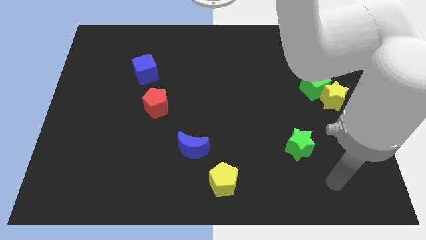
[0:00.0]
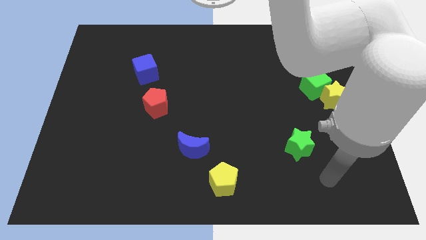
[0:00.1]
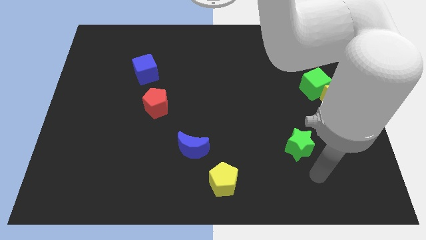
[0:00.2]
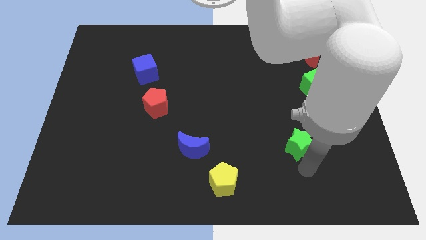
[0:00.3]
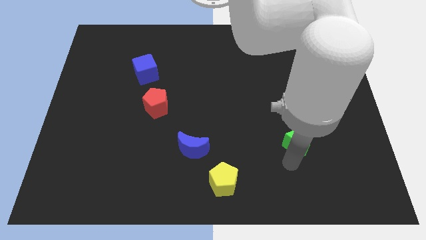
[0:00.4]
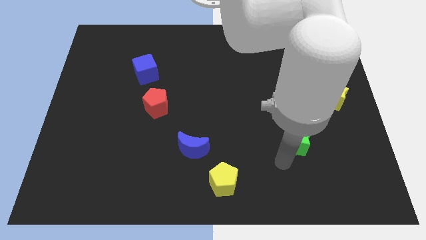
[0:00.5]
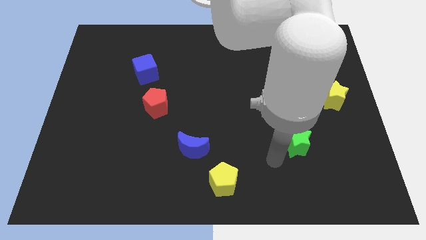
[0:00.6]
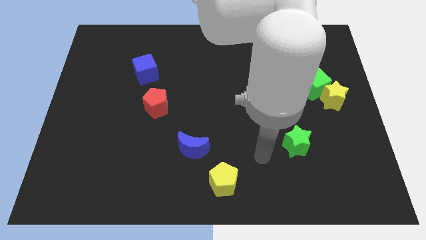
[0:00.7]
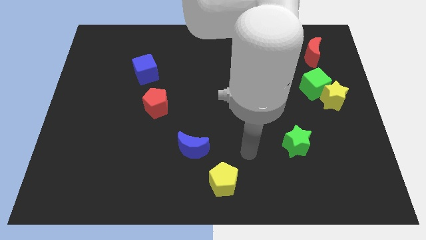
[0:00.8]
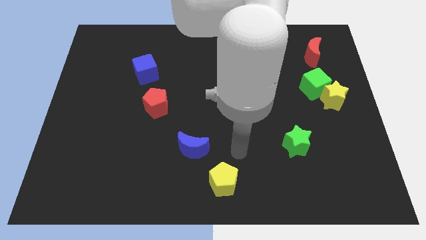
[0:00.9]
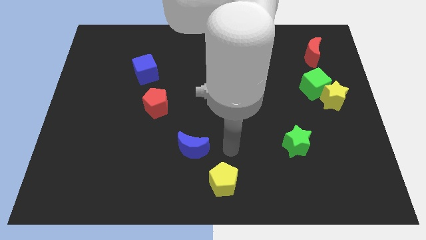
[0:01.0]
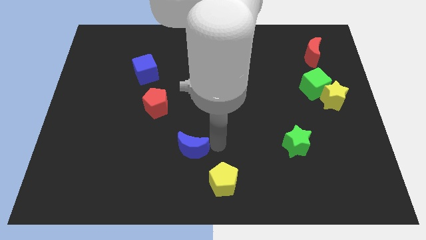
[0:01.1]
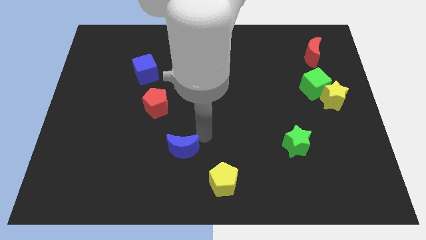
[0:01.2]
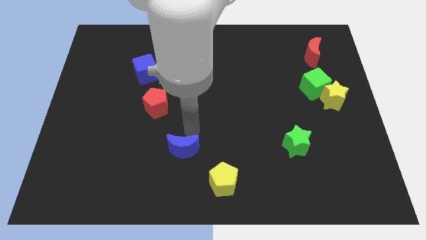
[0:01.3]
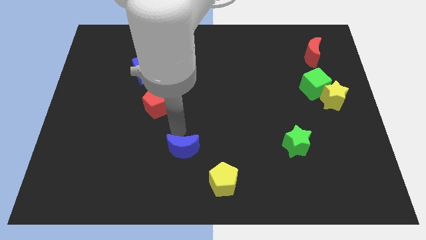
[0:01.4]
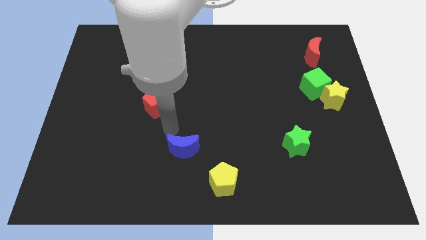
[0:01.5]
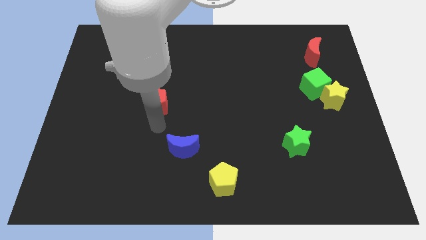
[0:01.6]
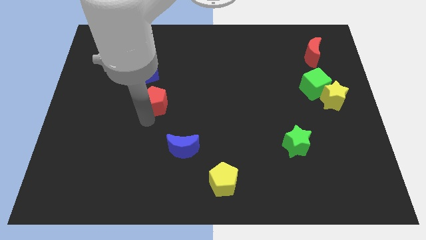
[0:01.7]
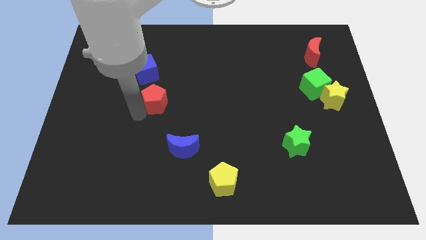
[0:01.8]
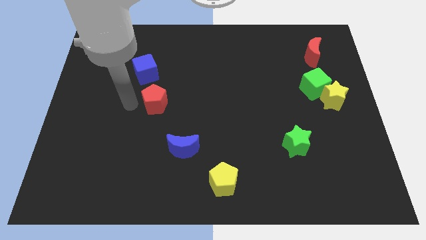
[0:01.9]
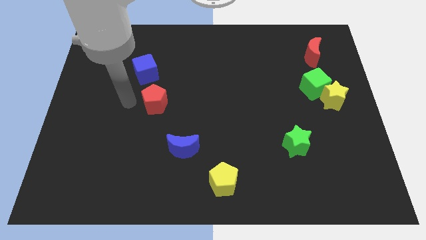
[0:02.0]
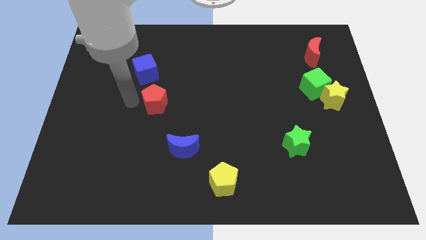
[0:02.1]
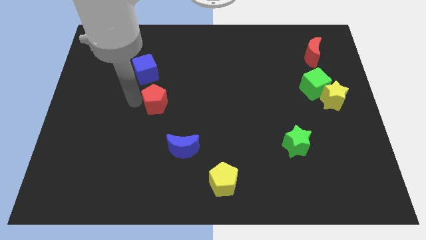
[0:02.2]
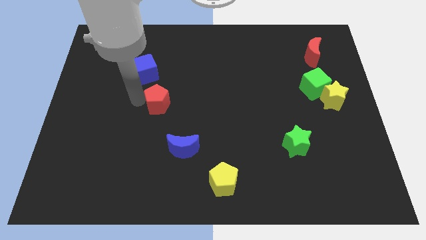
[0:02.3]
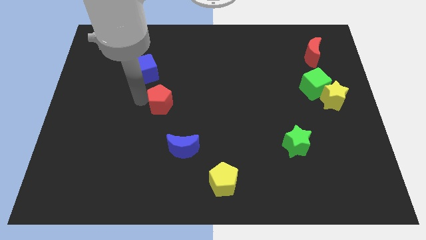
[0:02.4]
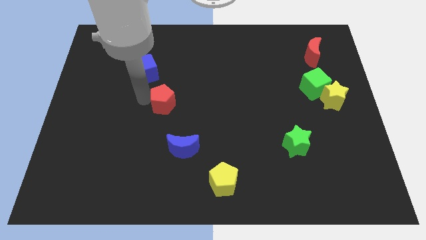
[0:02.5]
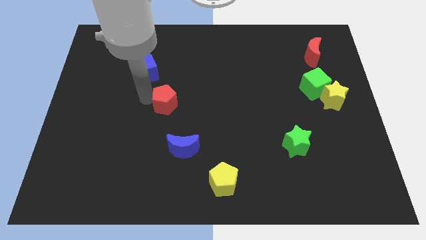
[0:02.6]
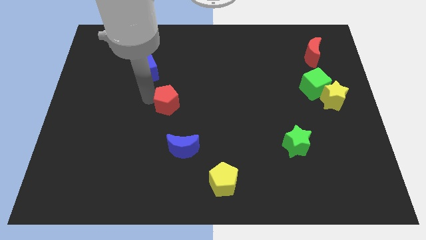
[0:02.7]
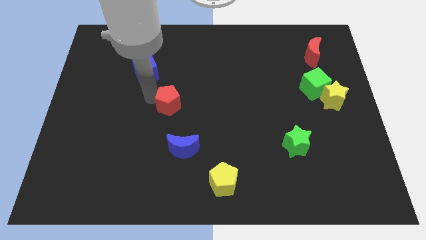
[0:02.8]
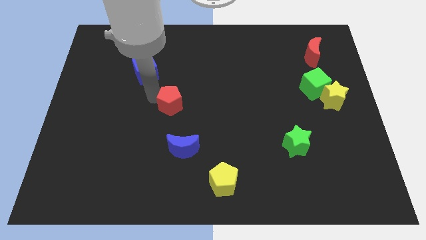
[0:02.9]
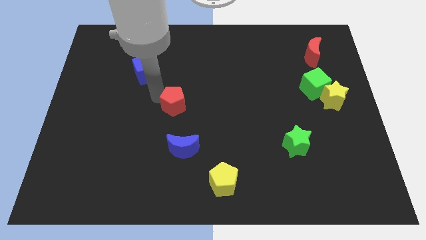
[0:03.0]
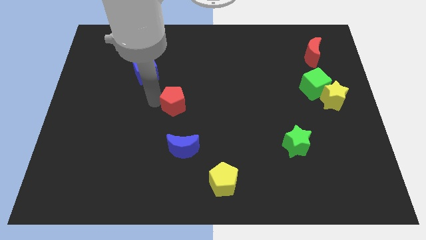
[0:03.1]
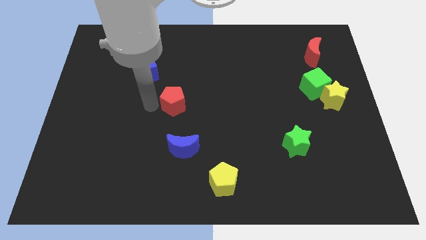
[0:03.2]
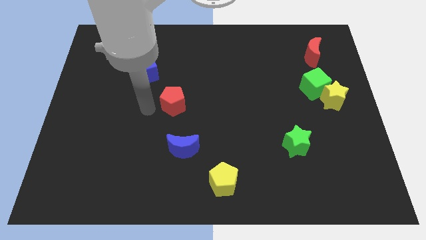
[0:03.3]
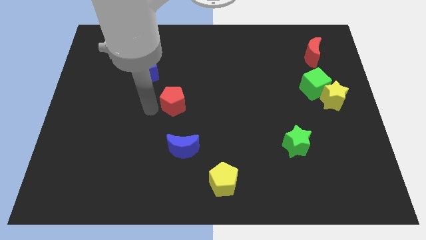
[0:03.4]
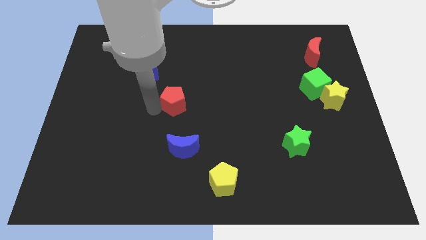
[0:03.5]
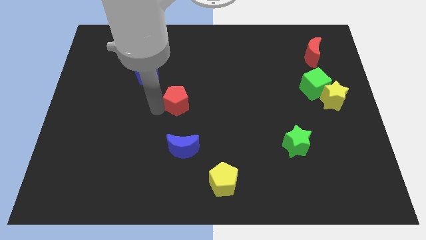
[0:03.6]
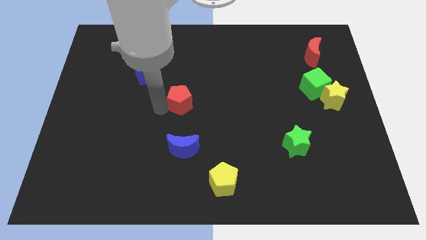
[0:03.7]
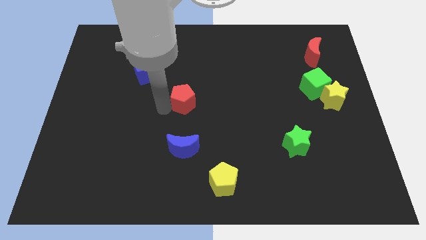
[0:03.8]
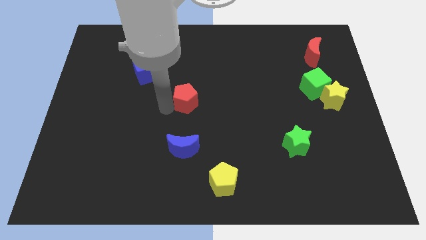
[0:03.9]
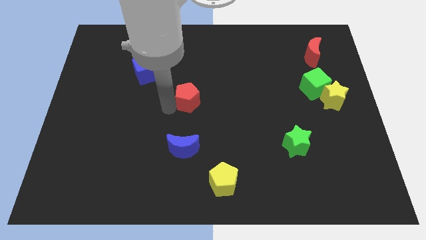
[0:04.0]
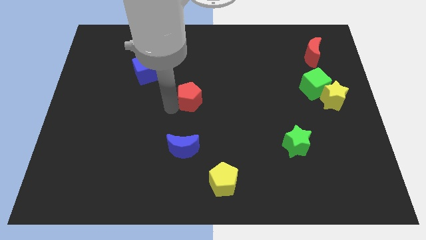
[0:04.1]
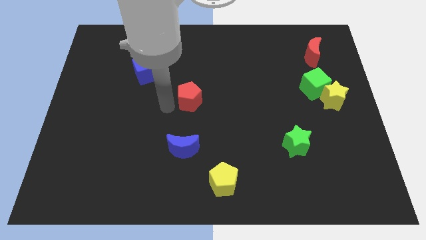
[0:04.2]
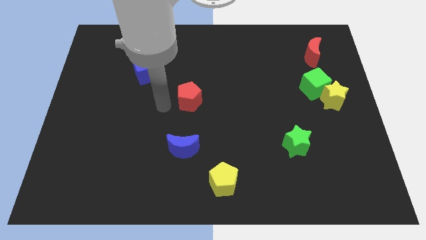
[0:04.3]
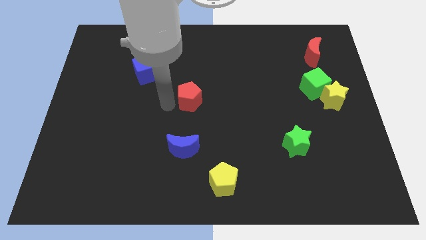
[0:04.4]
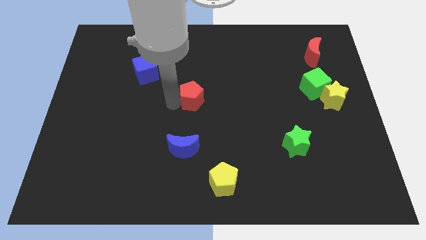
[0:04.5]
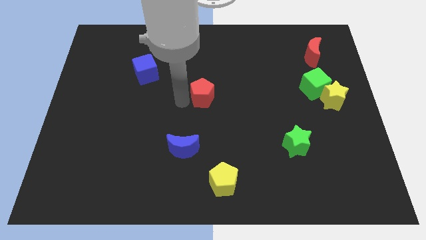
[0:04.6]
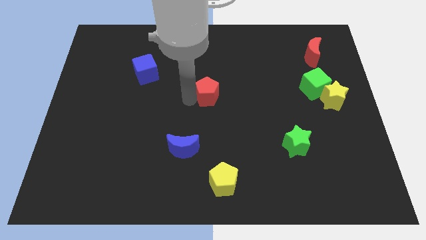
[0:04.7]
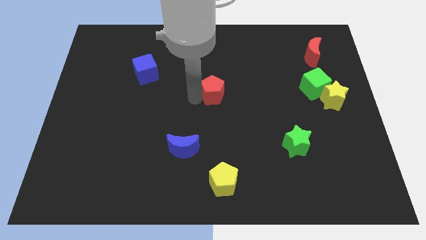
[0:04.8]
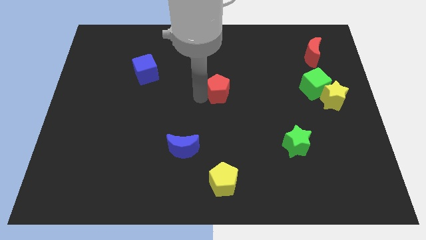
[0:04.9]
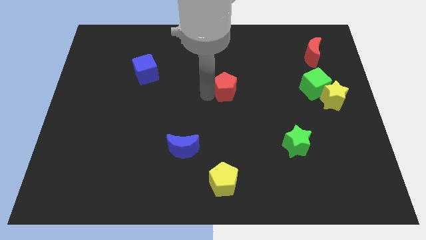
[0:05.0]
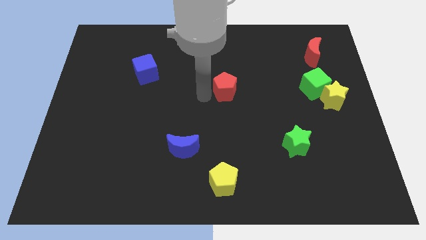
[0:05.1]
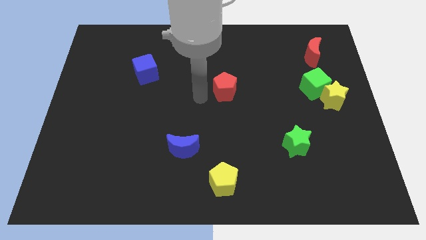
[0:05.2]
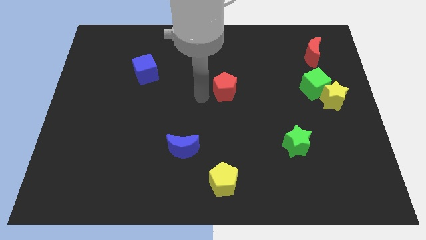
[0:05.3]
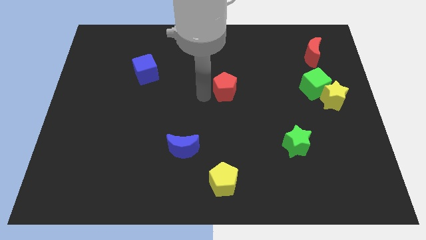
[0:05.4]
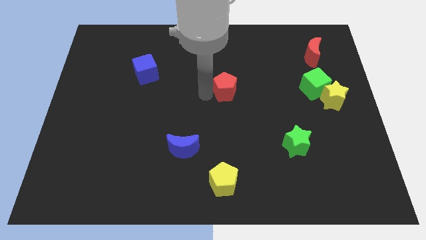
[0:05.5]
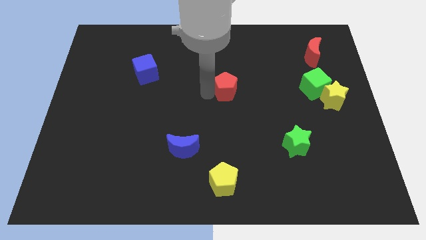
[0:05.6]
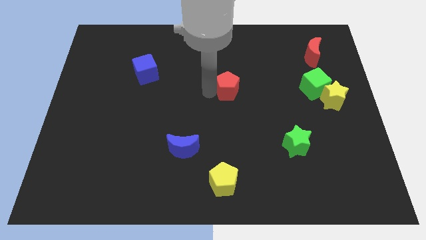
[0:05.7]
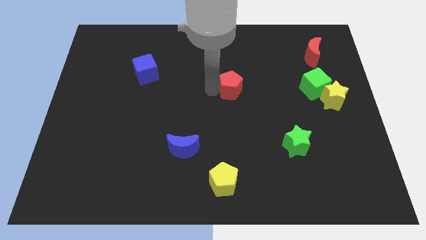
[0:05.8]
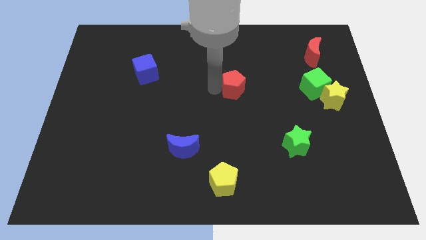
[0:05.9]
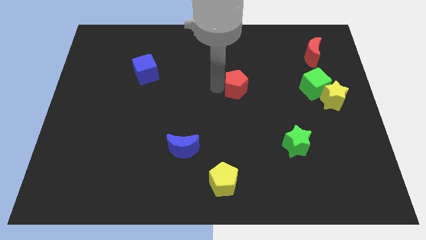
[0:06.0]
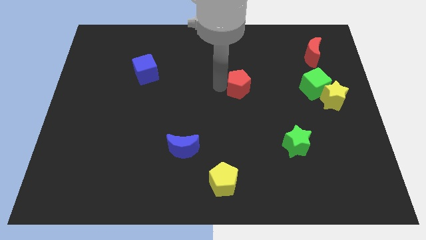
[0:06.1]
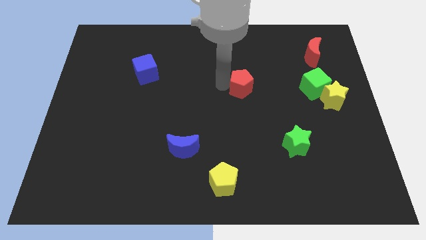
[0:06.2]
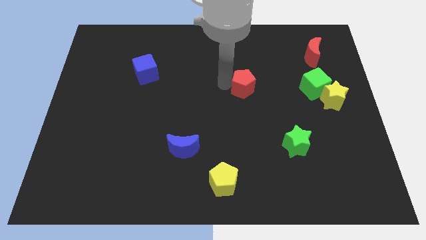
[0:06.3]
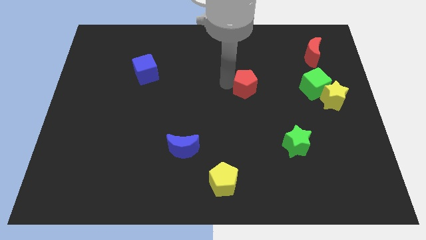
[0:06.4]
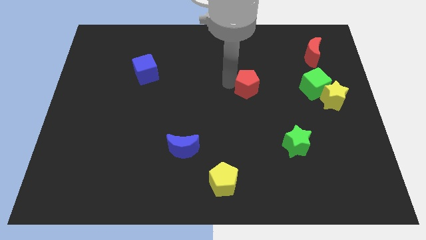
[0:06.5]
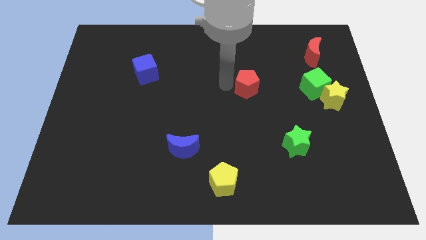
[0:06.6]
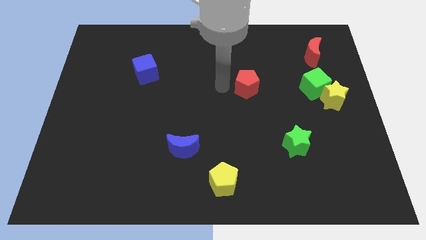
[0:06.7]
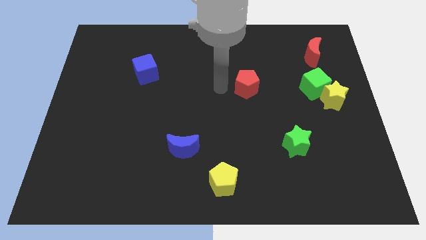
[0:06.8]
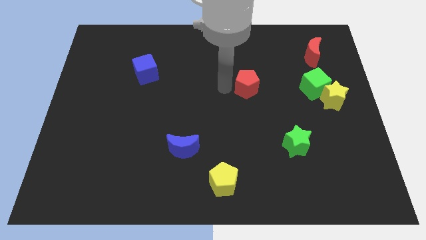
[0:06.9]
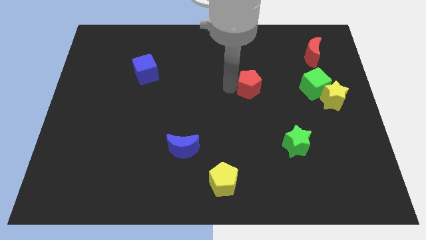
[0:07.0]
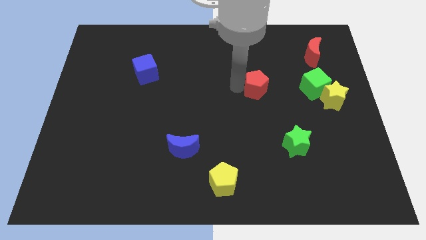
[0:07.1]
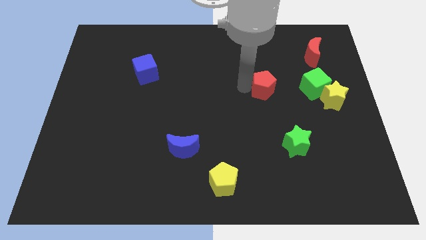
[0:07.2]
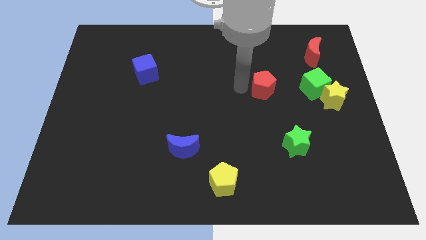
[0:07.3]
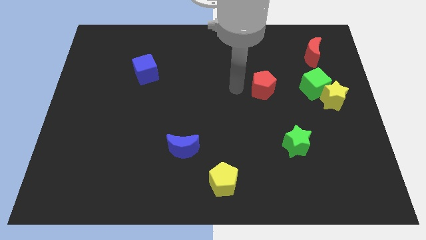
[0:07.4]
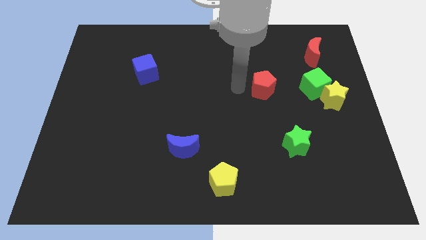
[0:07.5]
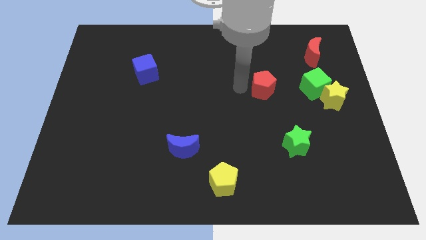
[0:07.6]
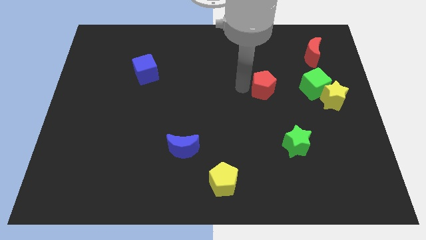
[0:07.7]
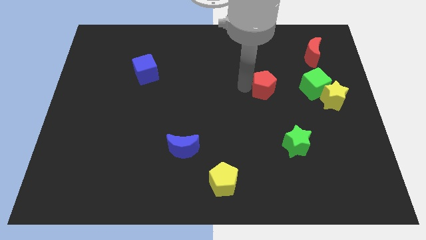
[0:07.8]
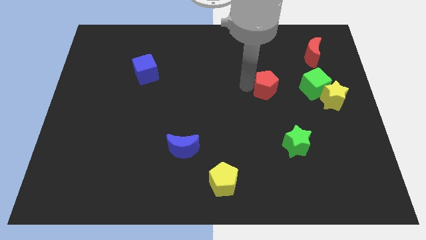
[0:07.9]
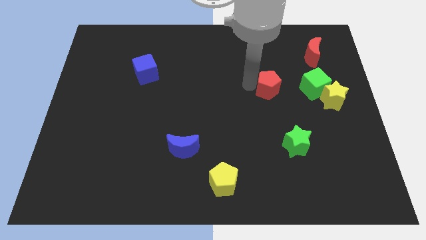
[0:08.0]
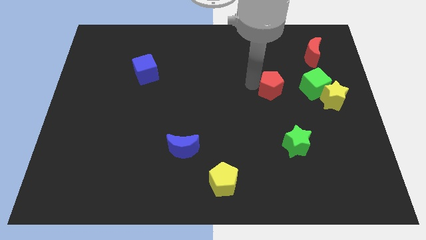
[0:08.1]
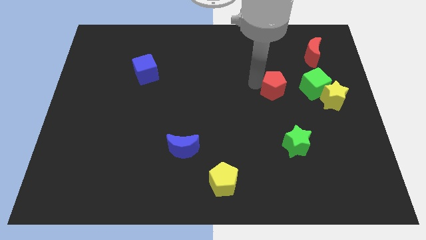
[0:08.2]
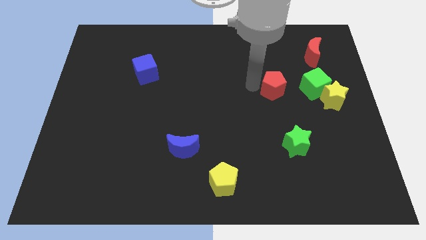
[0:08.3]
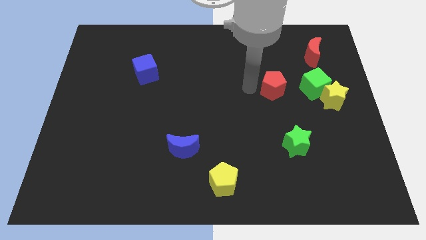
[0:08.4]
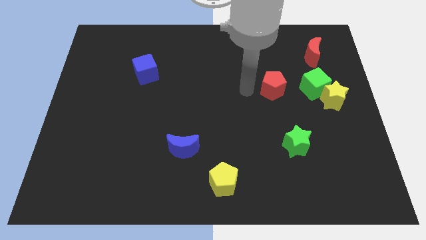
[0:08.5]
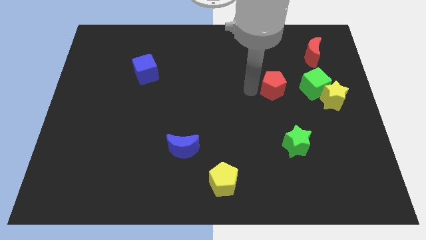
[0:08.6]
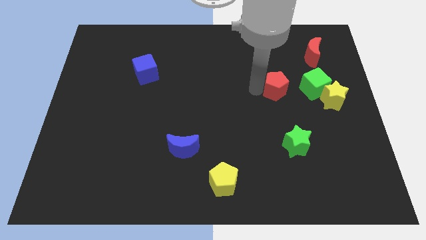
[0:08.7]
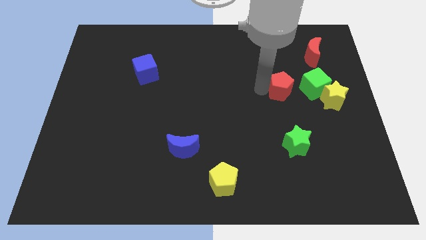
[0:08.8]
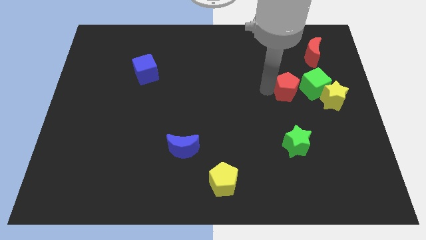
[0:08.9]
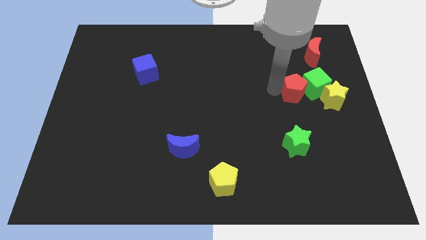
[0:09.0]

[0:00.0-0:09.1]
push the red pentagon to the green cube
